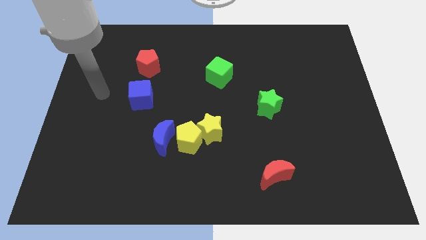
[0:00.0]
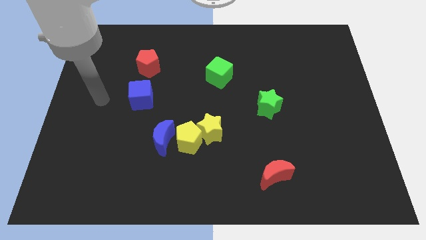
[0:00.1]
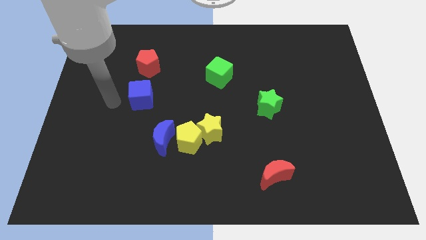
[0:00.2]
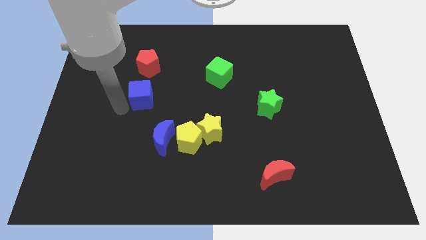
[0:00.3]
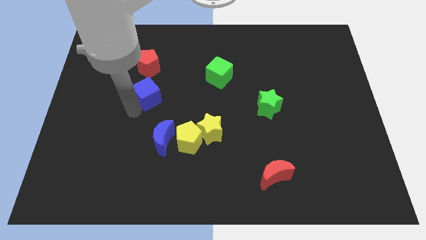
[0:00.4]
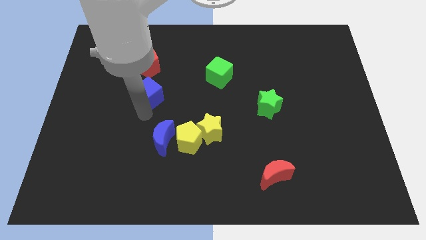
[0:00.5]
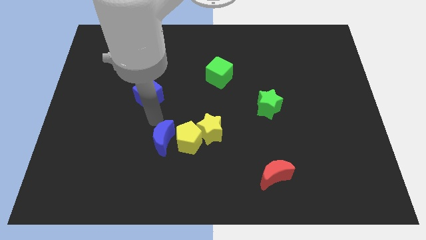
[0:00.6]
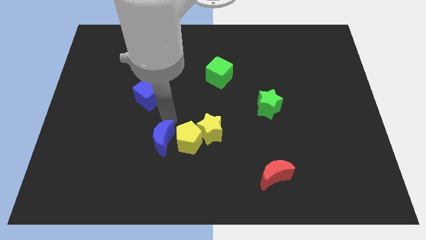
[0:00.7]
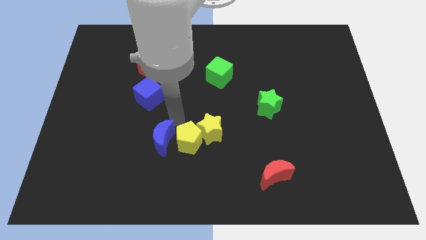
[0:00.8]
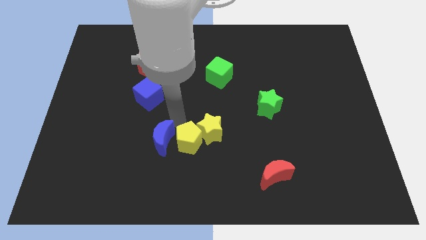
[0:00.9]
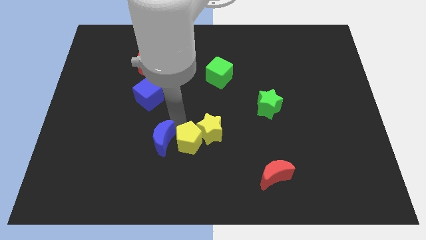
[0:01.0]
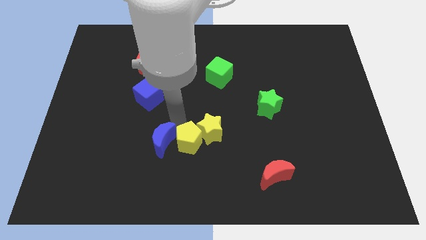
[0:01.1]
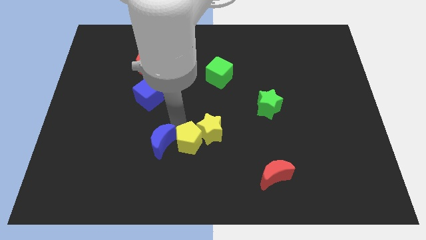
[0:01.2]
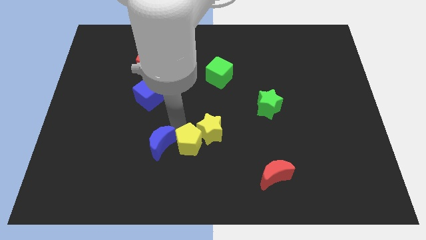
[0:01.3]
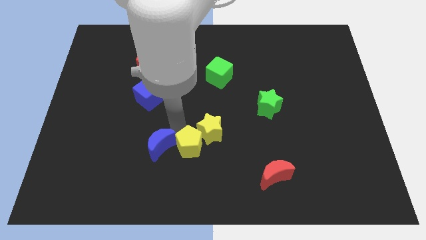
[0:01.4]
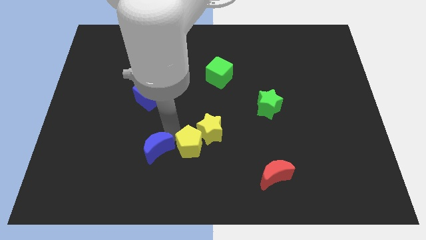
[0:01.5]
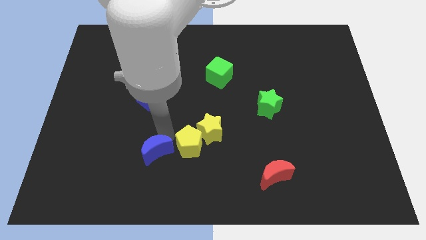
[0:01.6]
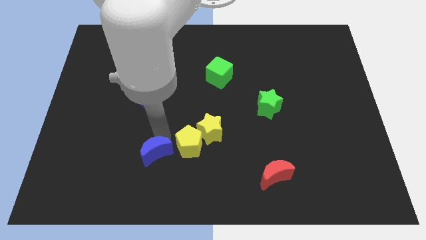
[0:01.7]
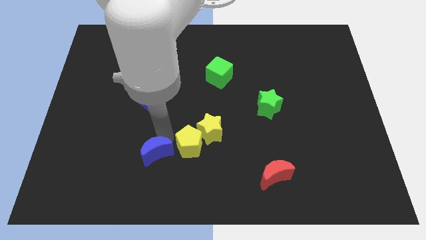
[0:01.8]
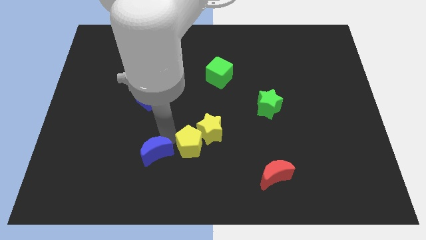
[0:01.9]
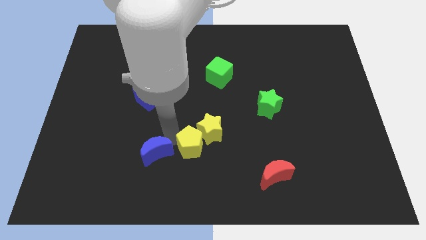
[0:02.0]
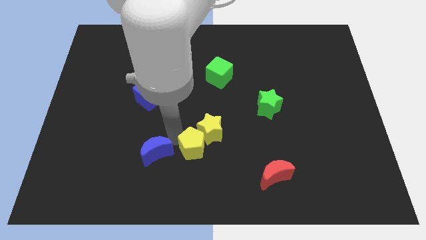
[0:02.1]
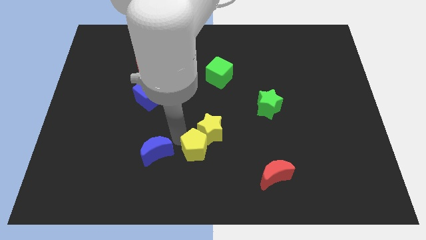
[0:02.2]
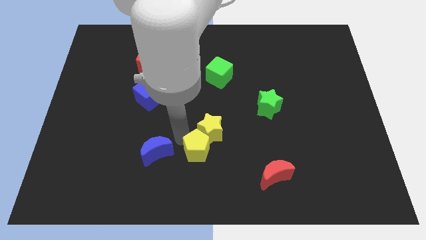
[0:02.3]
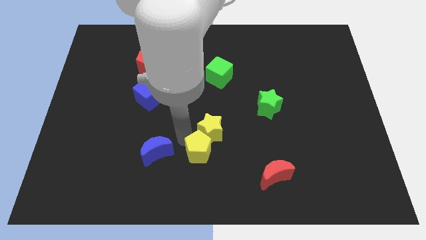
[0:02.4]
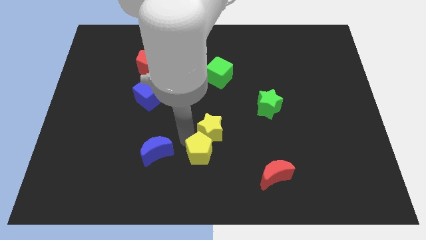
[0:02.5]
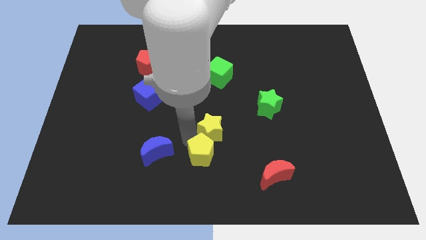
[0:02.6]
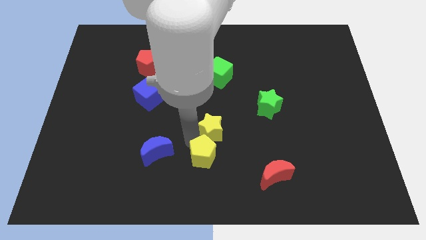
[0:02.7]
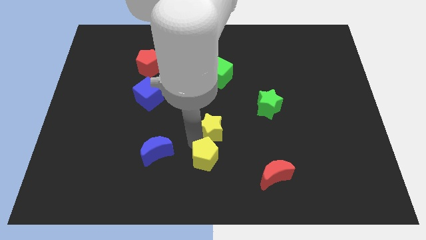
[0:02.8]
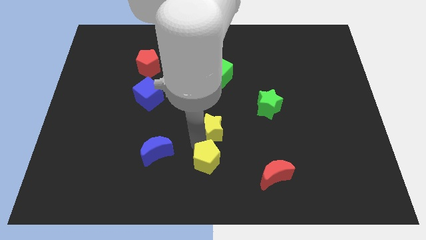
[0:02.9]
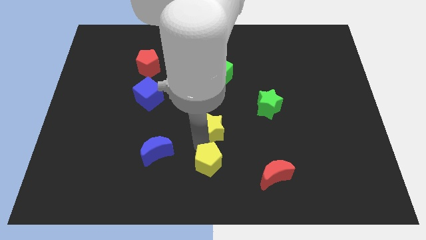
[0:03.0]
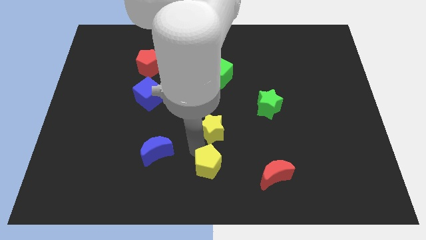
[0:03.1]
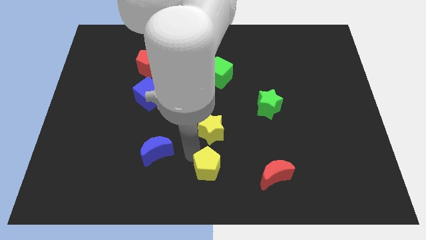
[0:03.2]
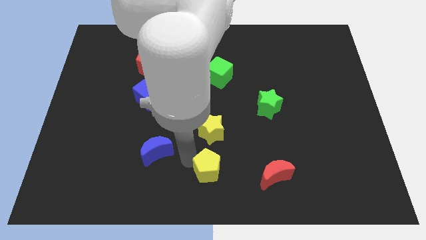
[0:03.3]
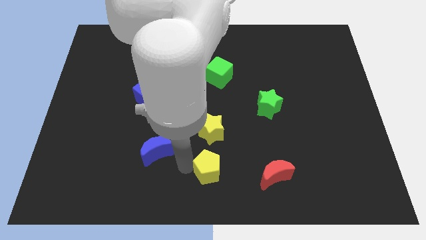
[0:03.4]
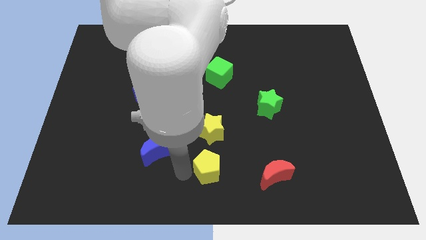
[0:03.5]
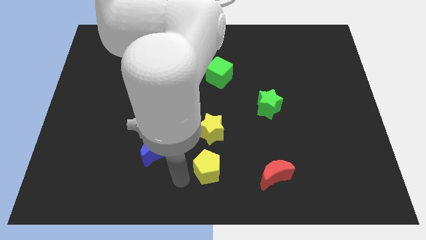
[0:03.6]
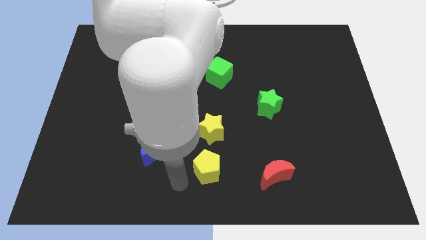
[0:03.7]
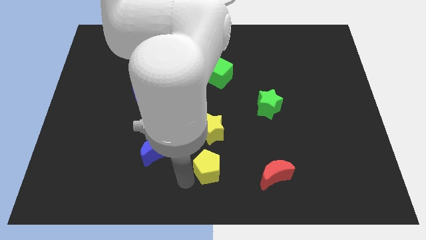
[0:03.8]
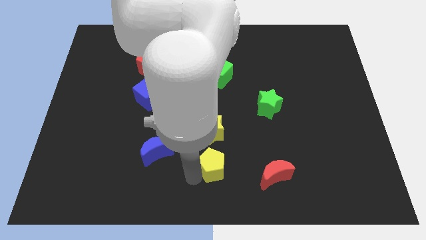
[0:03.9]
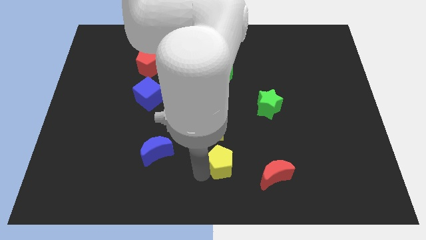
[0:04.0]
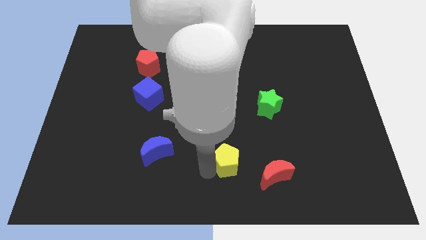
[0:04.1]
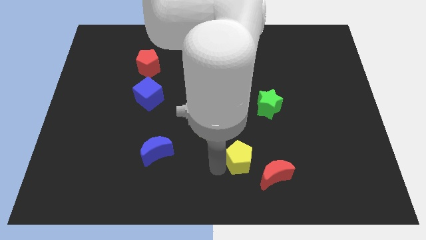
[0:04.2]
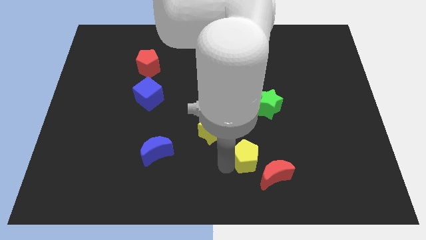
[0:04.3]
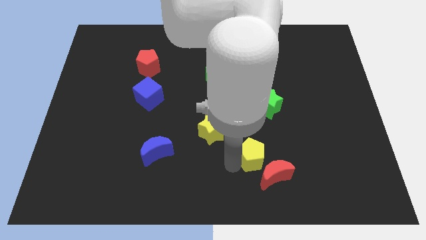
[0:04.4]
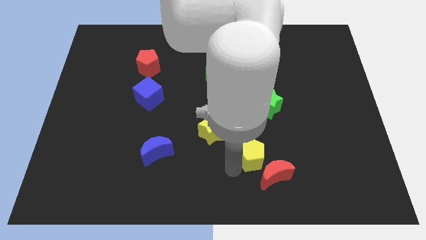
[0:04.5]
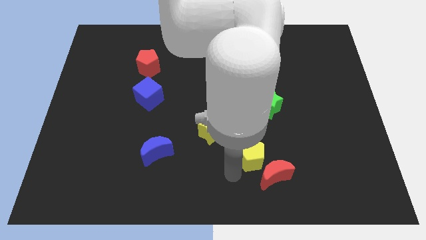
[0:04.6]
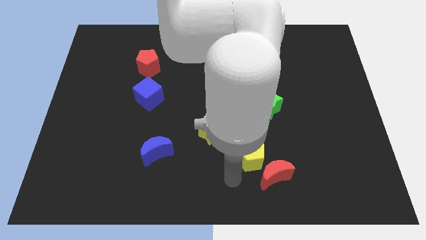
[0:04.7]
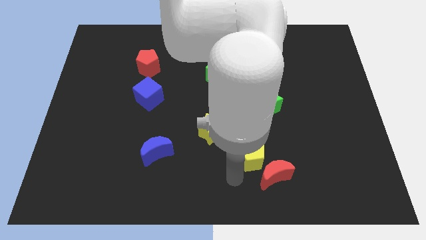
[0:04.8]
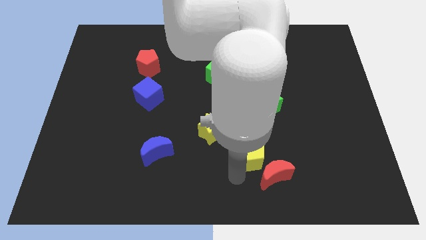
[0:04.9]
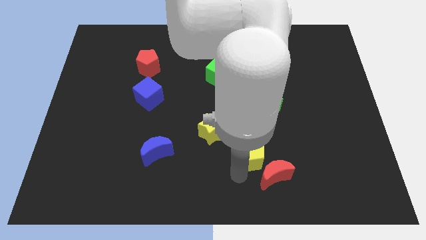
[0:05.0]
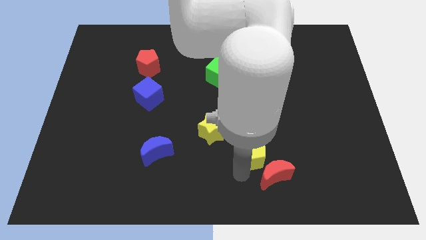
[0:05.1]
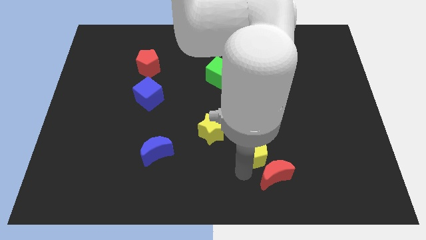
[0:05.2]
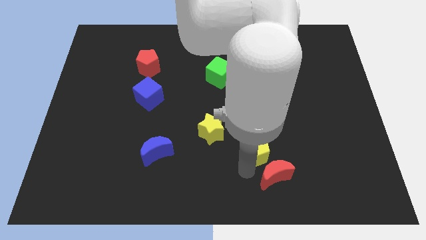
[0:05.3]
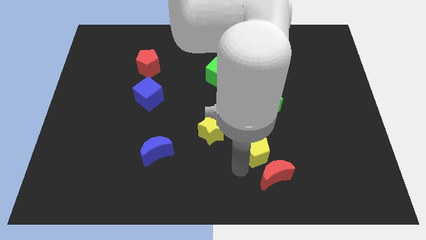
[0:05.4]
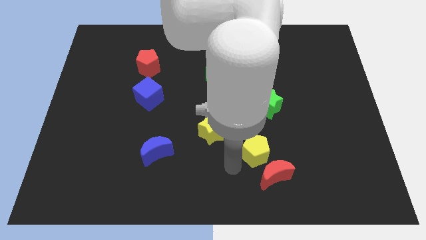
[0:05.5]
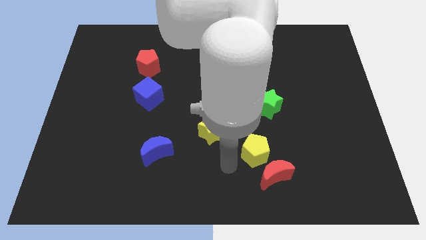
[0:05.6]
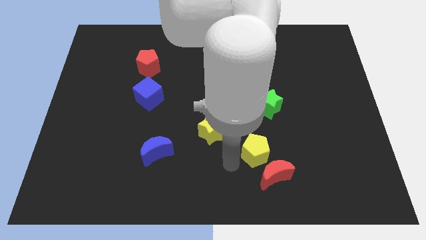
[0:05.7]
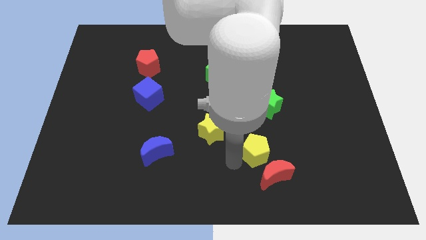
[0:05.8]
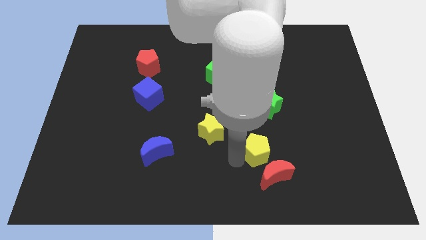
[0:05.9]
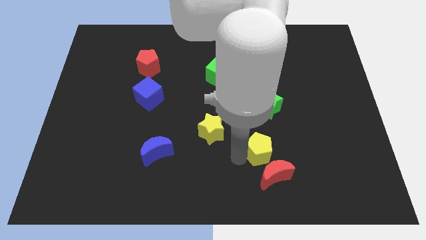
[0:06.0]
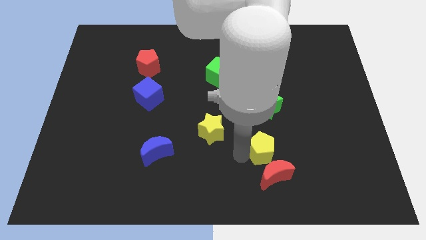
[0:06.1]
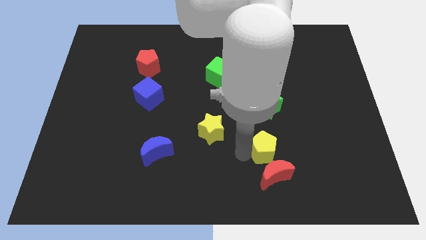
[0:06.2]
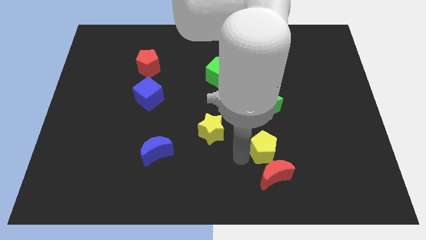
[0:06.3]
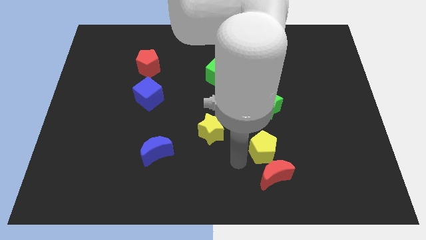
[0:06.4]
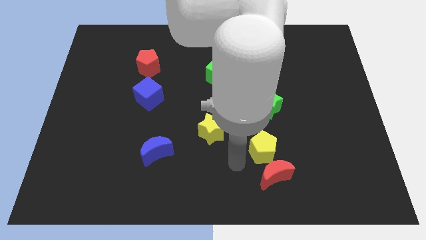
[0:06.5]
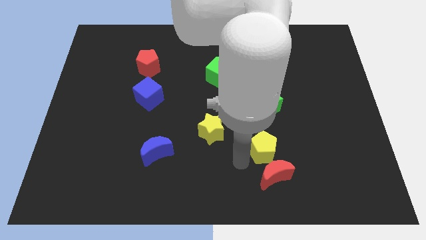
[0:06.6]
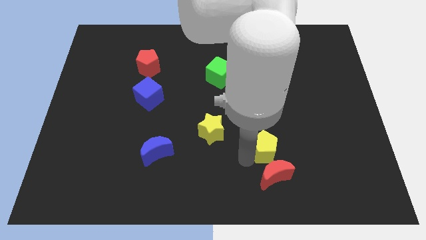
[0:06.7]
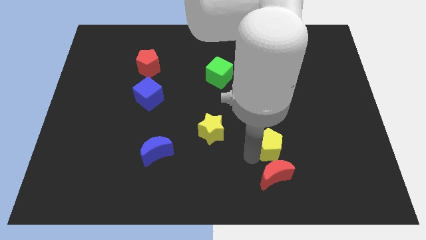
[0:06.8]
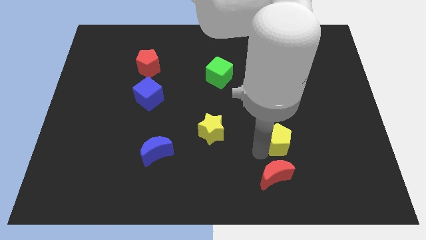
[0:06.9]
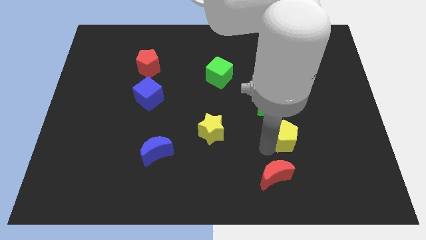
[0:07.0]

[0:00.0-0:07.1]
move the yellow pentagon right

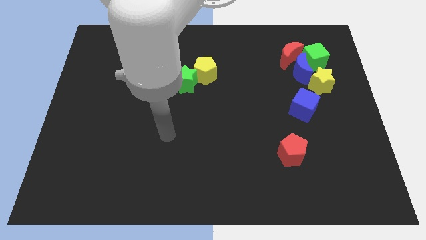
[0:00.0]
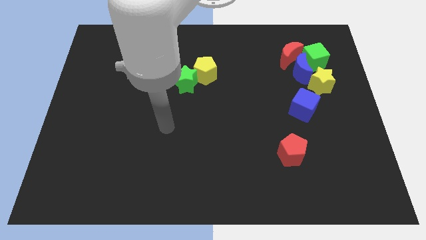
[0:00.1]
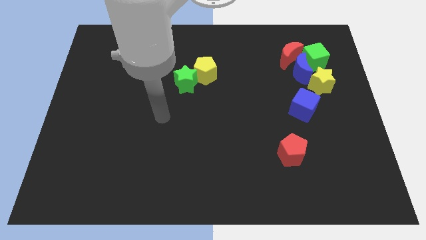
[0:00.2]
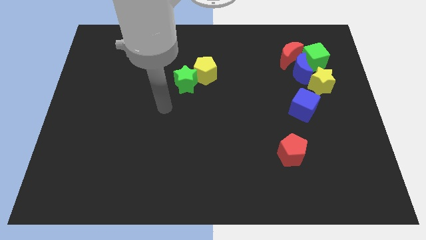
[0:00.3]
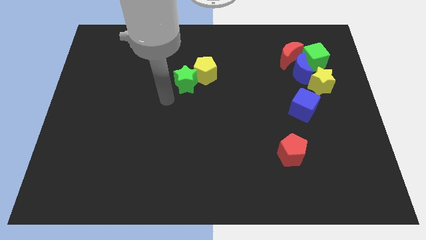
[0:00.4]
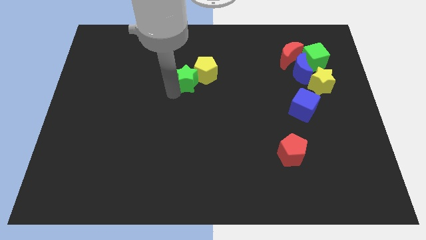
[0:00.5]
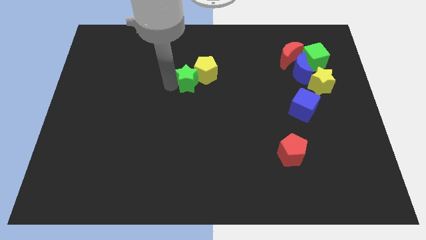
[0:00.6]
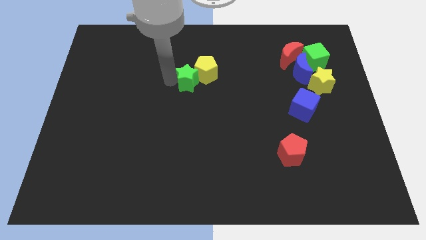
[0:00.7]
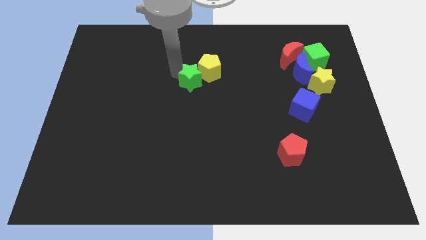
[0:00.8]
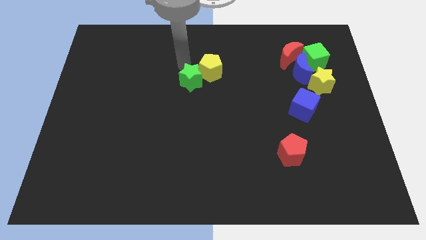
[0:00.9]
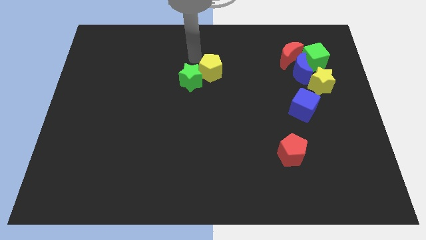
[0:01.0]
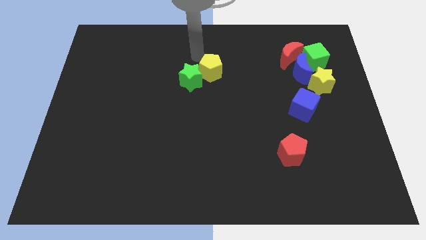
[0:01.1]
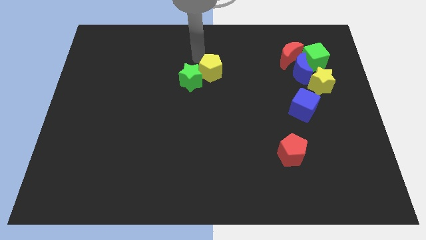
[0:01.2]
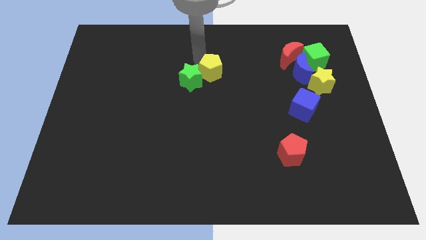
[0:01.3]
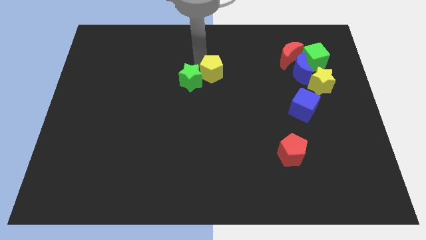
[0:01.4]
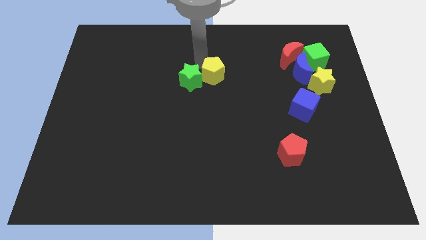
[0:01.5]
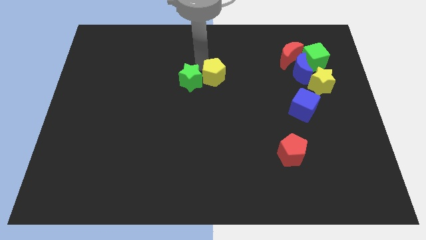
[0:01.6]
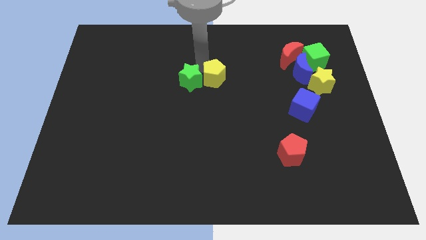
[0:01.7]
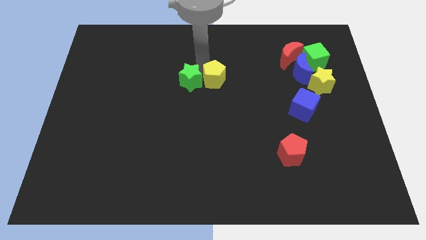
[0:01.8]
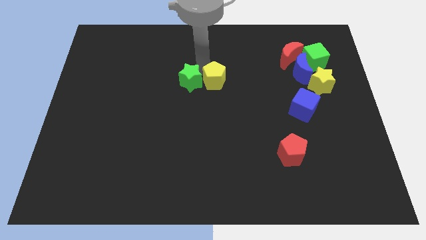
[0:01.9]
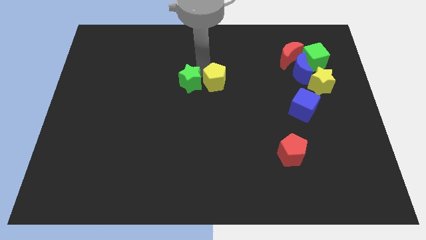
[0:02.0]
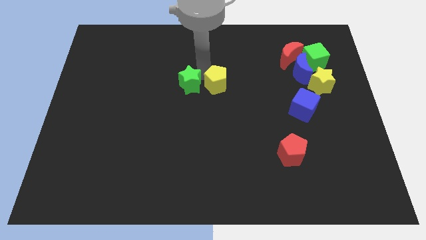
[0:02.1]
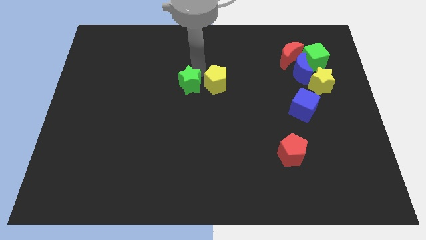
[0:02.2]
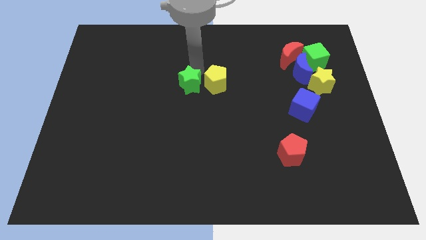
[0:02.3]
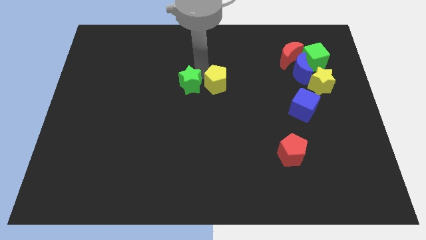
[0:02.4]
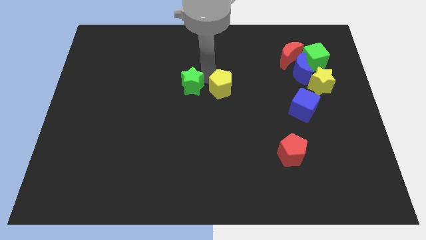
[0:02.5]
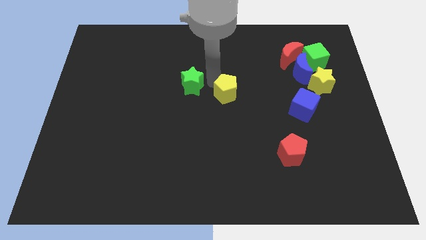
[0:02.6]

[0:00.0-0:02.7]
slide the yellow pentagon a little down and to the right
